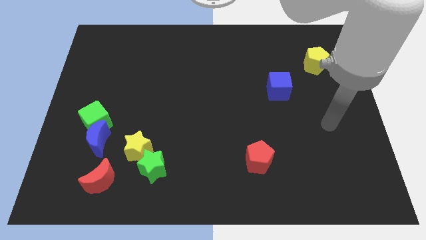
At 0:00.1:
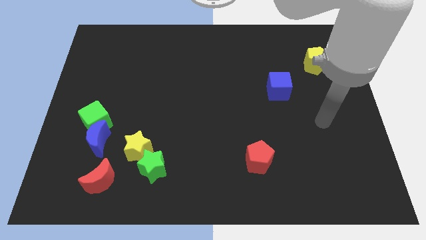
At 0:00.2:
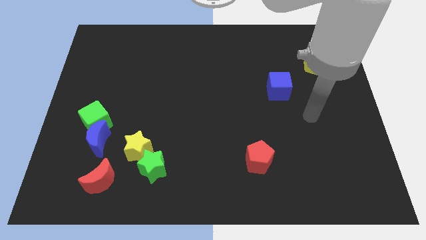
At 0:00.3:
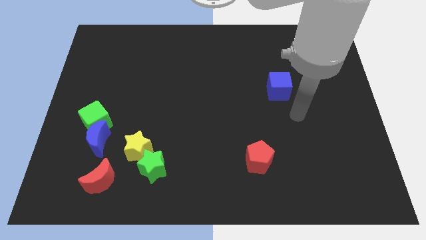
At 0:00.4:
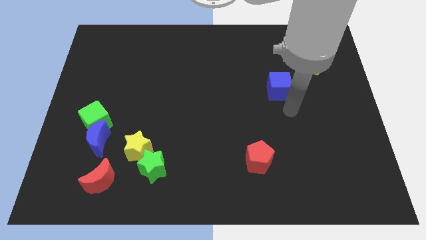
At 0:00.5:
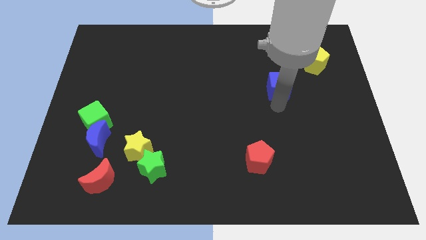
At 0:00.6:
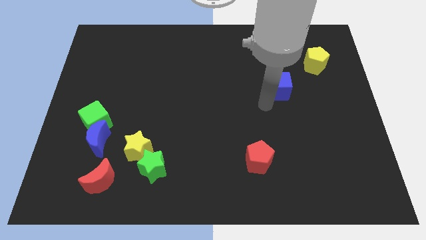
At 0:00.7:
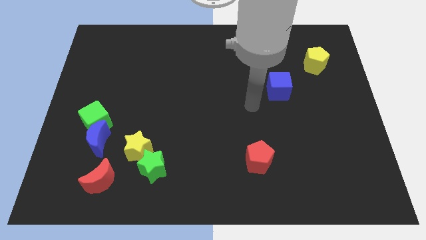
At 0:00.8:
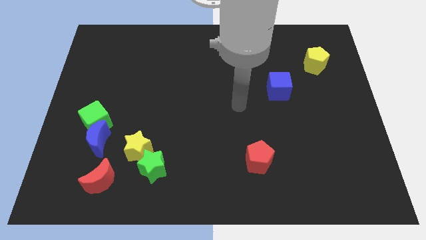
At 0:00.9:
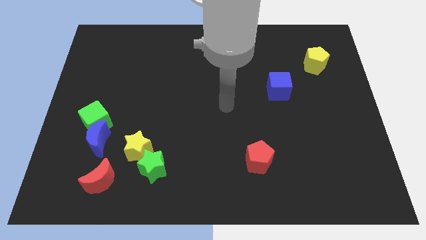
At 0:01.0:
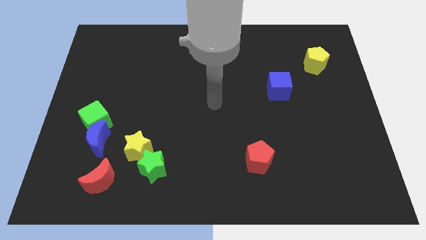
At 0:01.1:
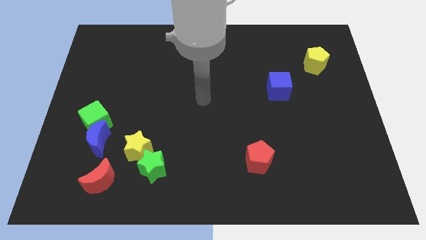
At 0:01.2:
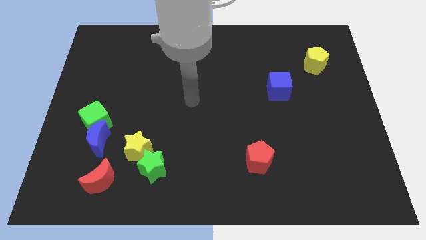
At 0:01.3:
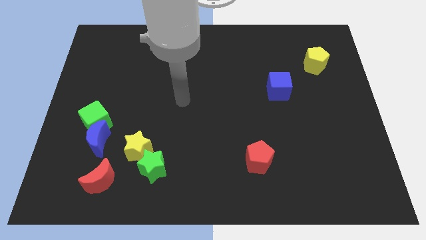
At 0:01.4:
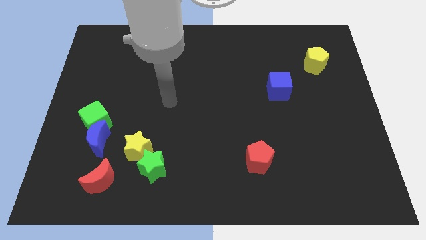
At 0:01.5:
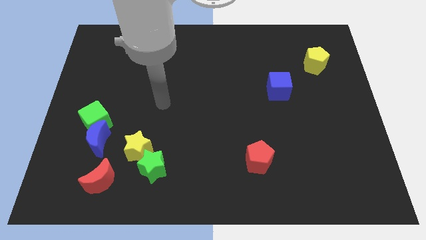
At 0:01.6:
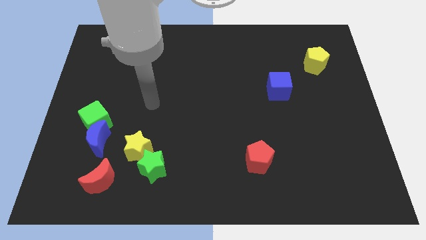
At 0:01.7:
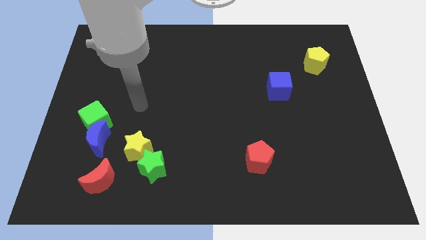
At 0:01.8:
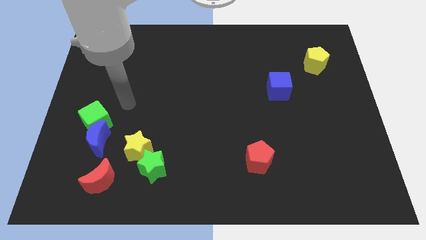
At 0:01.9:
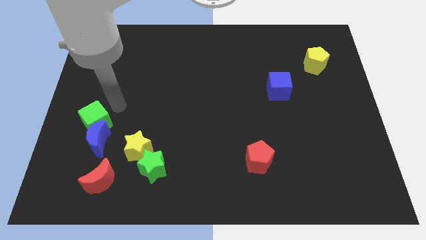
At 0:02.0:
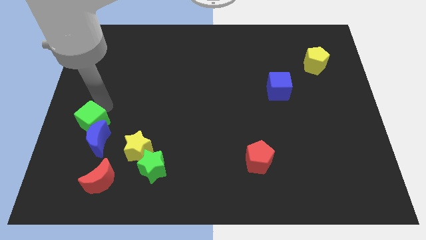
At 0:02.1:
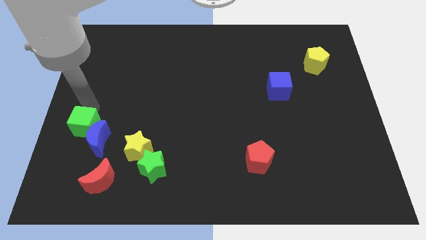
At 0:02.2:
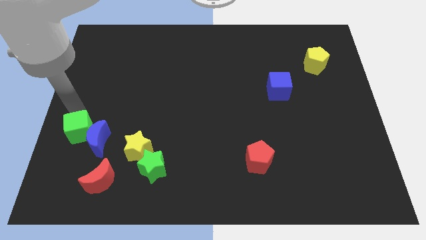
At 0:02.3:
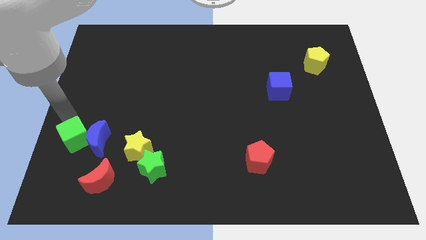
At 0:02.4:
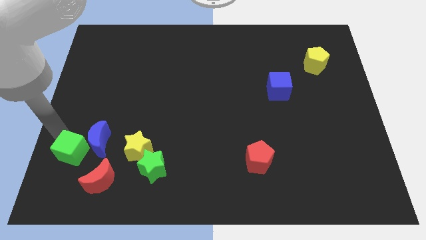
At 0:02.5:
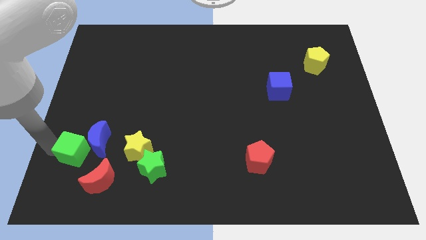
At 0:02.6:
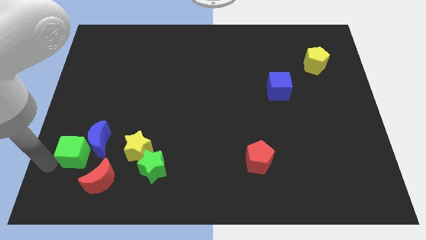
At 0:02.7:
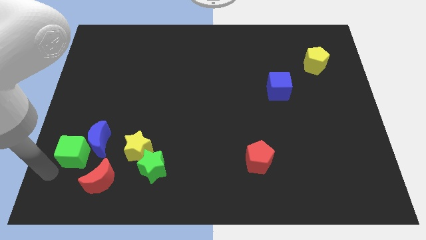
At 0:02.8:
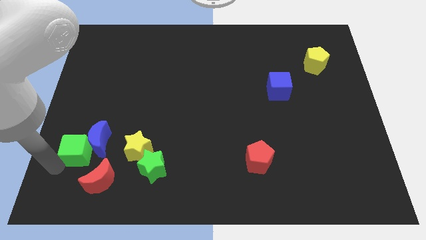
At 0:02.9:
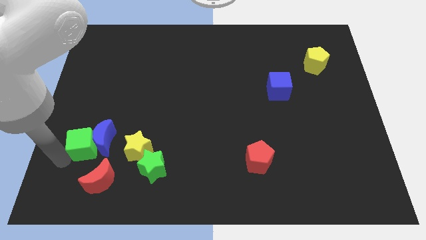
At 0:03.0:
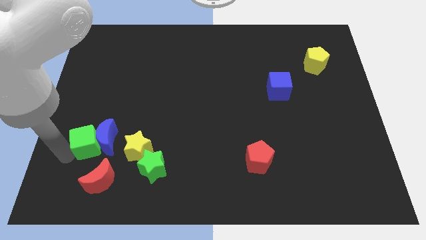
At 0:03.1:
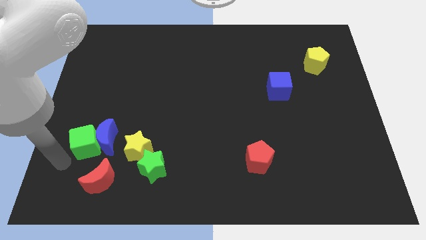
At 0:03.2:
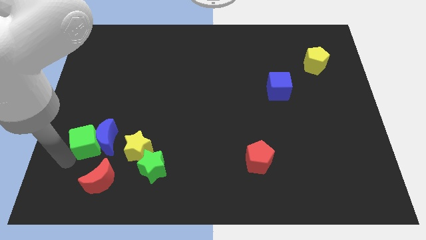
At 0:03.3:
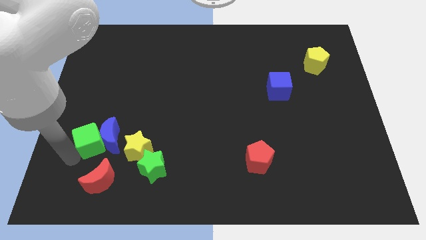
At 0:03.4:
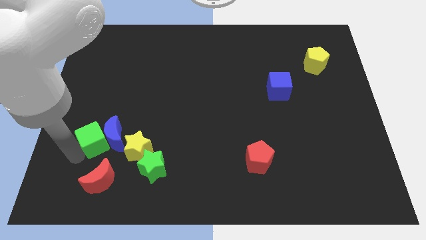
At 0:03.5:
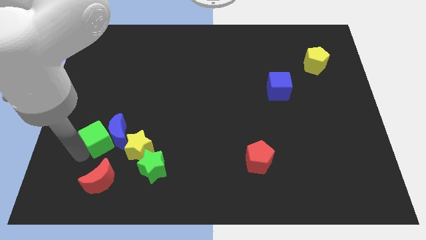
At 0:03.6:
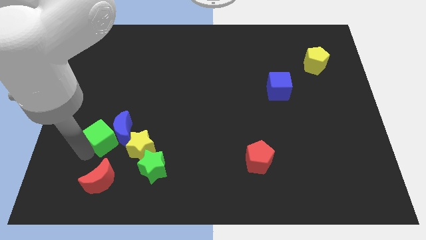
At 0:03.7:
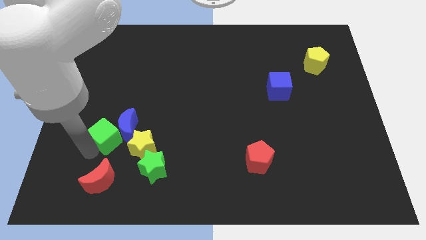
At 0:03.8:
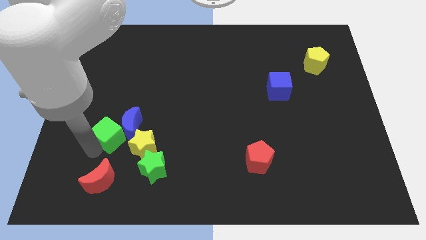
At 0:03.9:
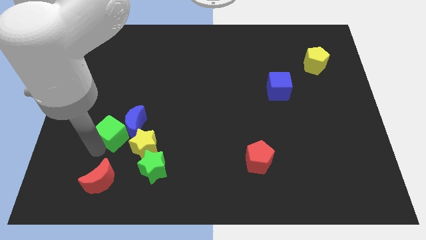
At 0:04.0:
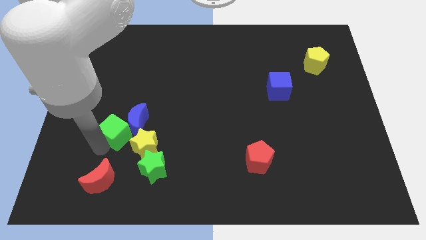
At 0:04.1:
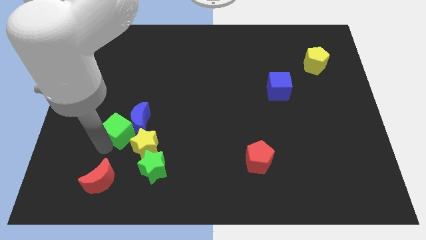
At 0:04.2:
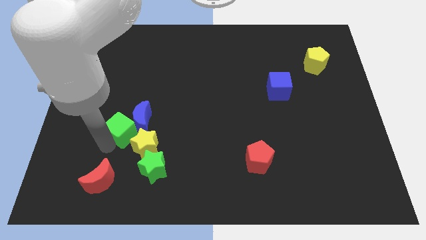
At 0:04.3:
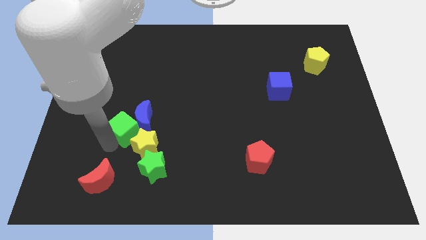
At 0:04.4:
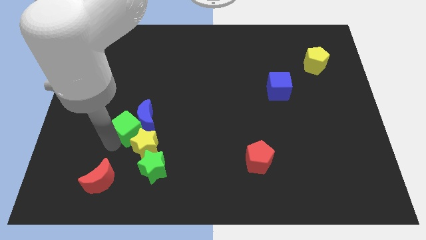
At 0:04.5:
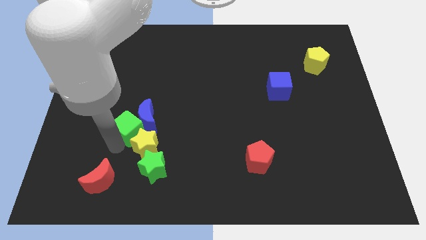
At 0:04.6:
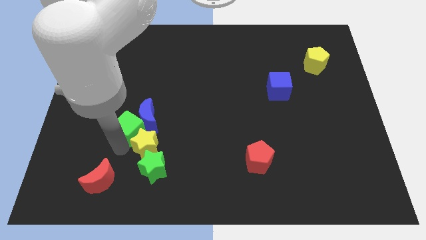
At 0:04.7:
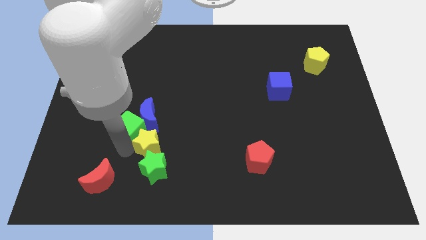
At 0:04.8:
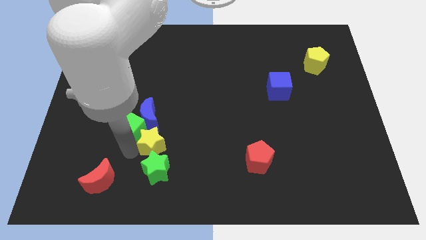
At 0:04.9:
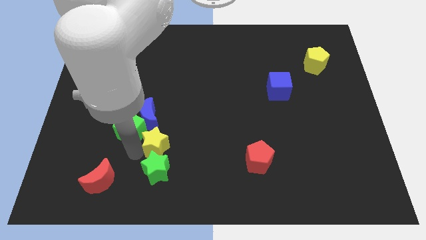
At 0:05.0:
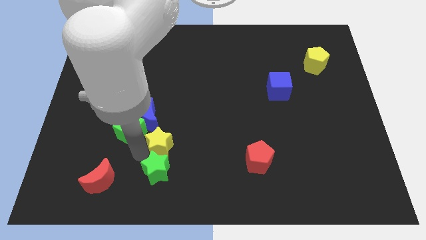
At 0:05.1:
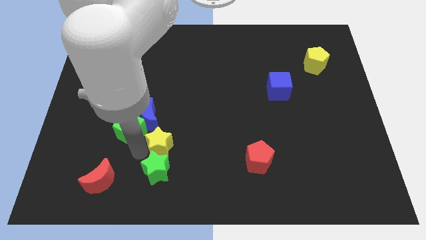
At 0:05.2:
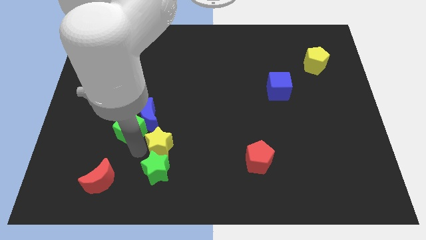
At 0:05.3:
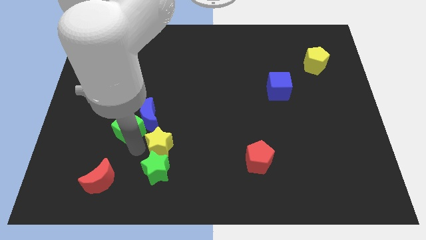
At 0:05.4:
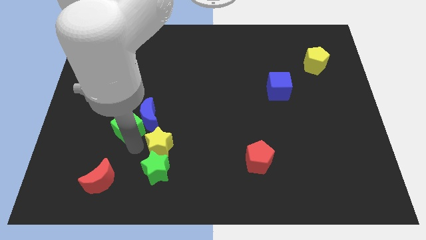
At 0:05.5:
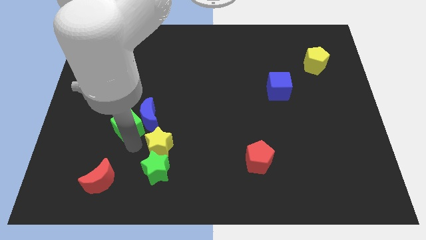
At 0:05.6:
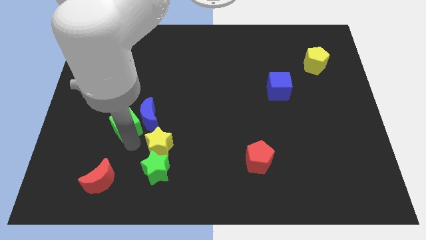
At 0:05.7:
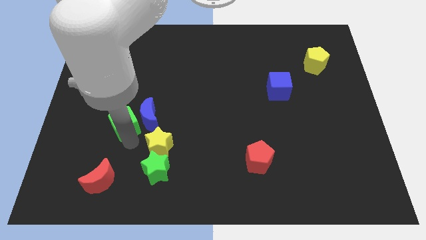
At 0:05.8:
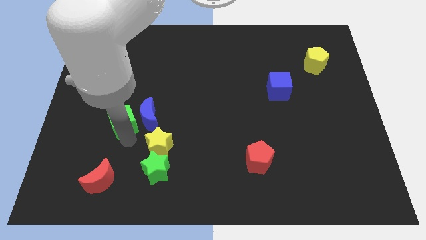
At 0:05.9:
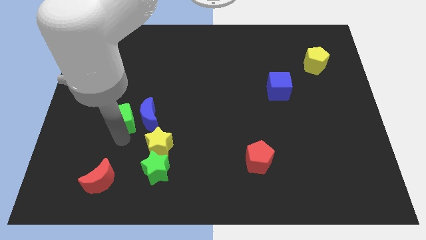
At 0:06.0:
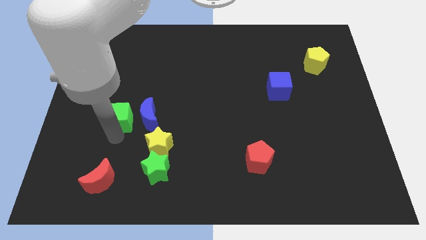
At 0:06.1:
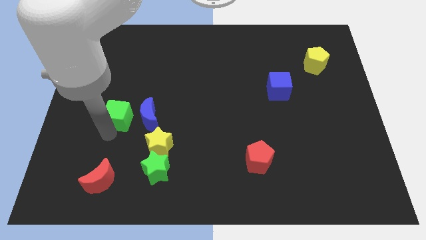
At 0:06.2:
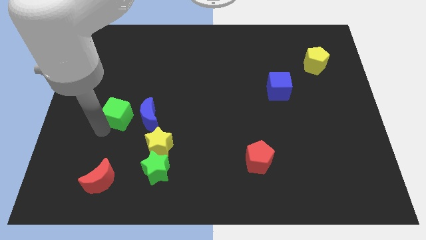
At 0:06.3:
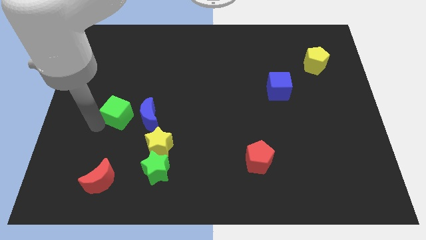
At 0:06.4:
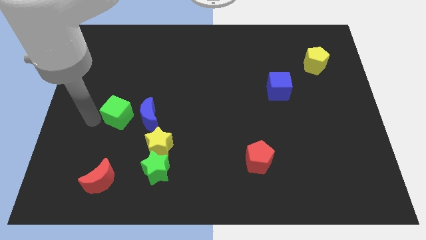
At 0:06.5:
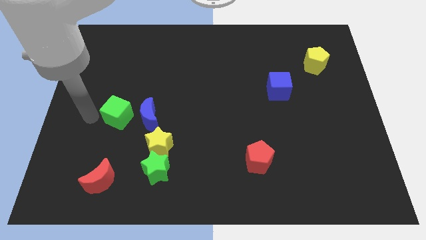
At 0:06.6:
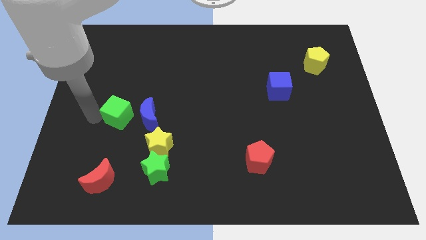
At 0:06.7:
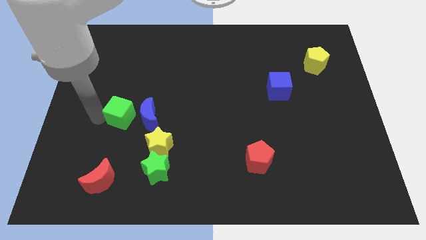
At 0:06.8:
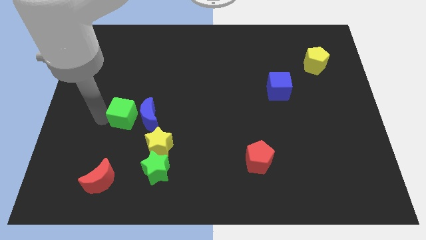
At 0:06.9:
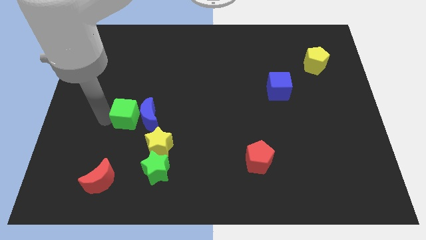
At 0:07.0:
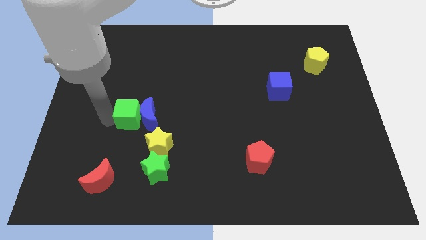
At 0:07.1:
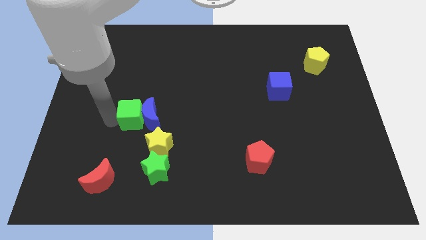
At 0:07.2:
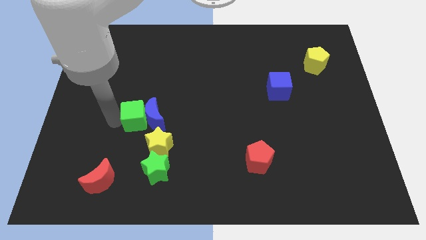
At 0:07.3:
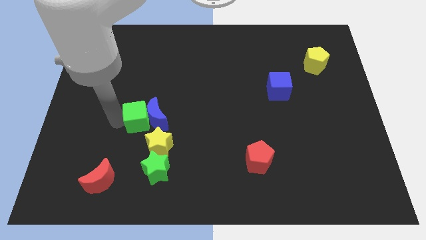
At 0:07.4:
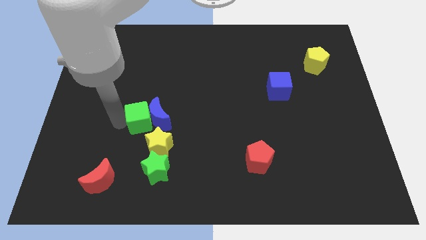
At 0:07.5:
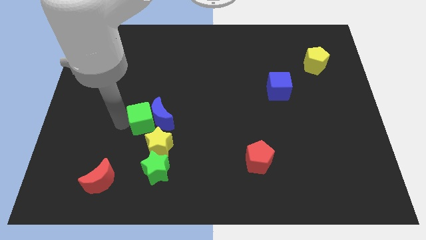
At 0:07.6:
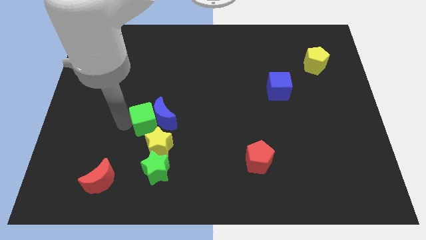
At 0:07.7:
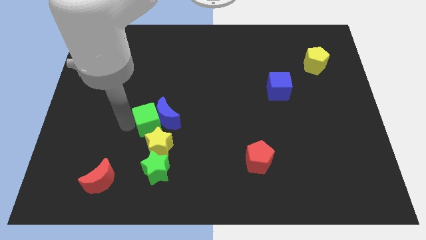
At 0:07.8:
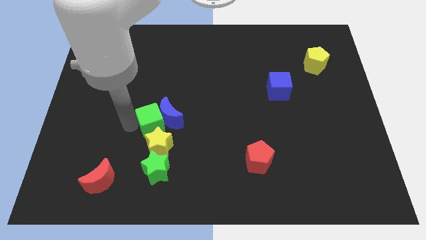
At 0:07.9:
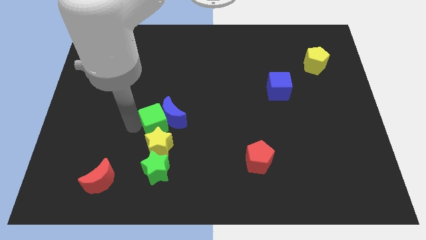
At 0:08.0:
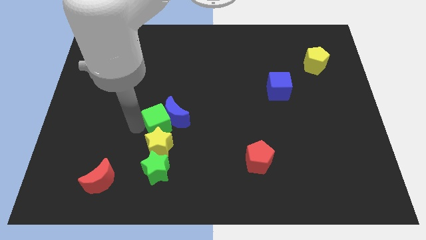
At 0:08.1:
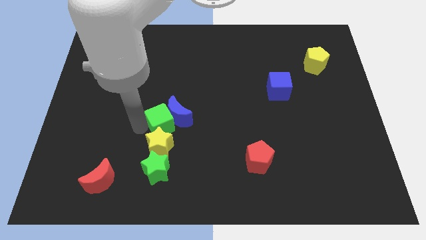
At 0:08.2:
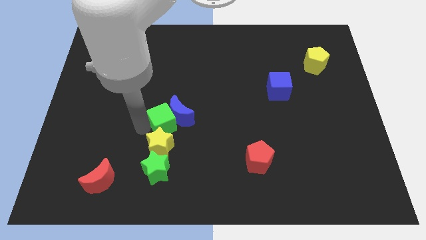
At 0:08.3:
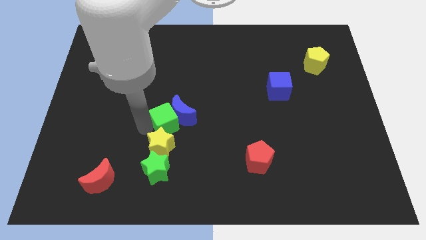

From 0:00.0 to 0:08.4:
push the green cube to the center of the board
